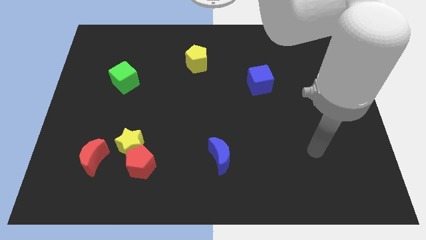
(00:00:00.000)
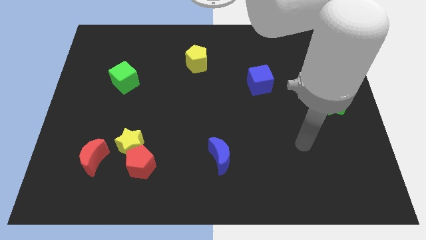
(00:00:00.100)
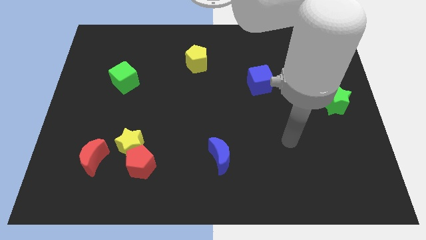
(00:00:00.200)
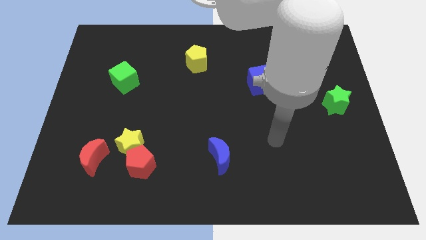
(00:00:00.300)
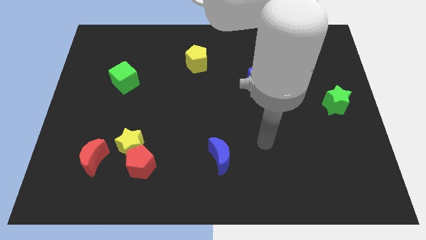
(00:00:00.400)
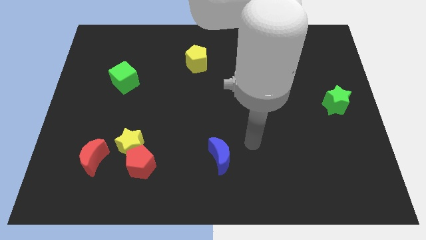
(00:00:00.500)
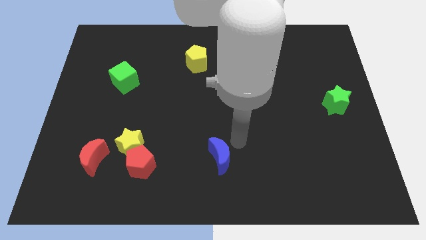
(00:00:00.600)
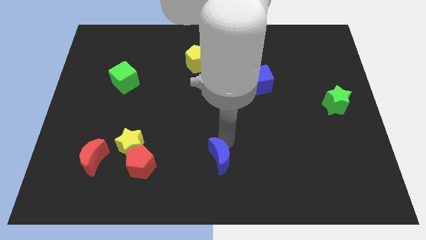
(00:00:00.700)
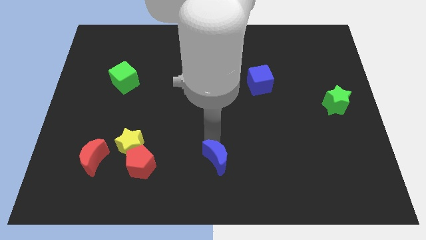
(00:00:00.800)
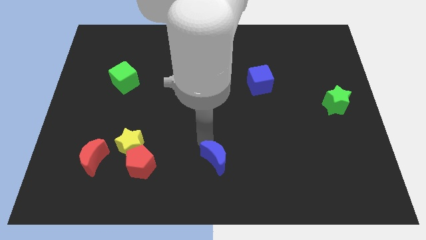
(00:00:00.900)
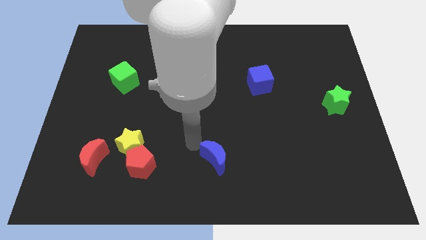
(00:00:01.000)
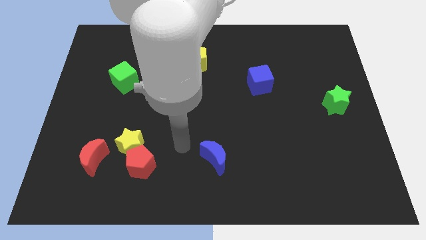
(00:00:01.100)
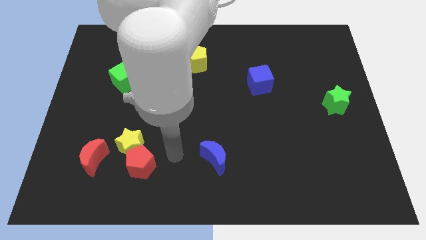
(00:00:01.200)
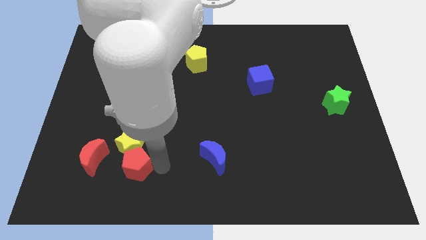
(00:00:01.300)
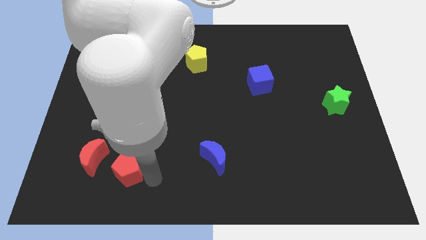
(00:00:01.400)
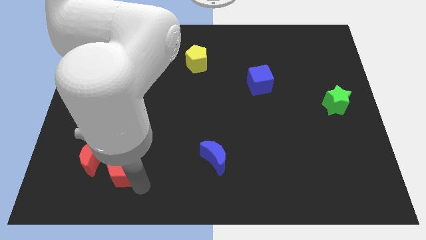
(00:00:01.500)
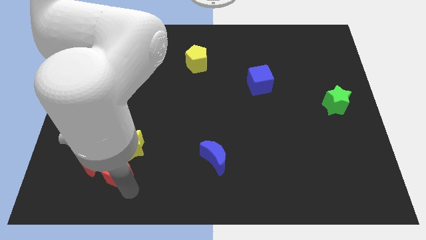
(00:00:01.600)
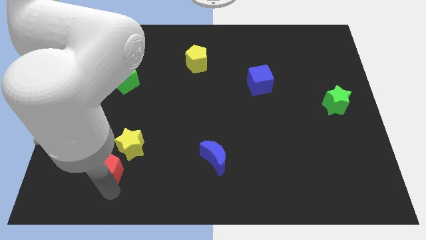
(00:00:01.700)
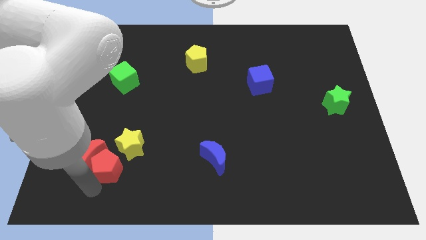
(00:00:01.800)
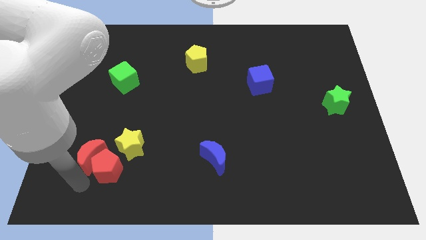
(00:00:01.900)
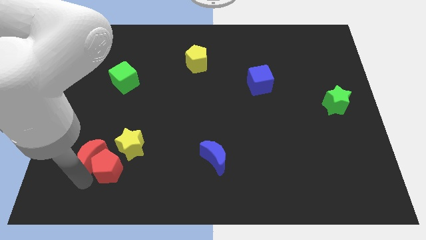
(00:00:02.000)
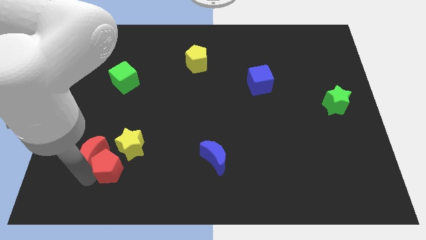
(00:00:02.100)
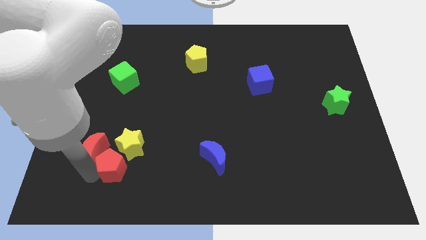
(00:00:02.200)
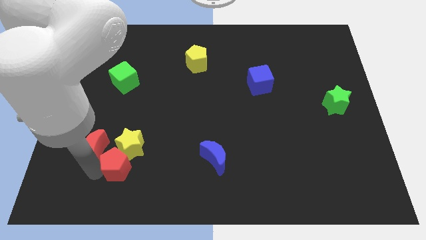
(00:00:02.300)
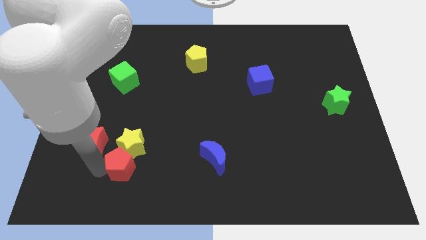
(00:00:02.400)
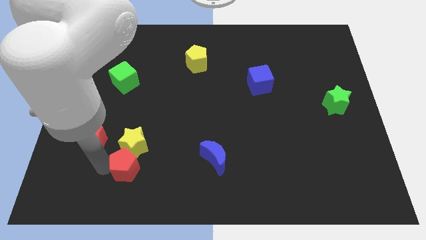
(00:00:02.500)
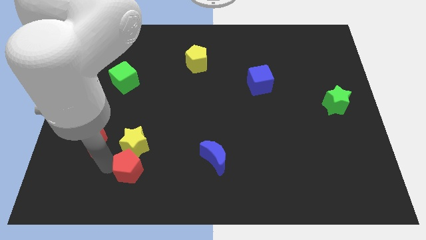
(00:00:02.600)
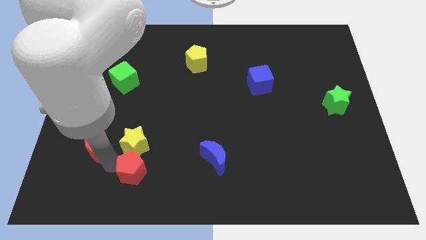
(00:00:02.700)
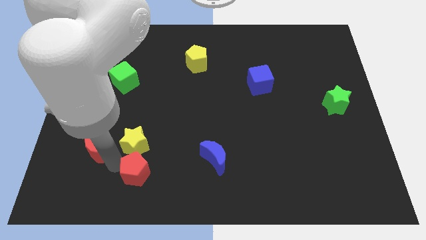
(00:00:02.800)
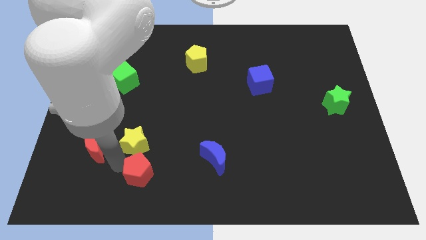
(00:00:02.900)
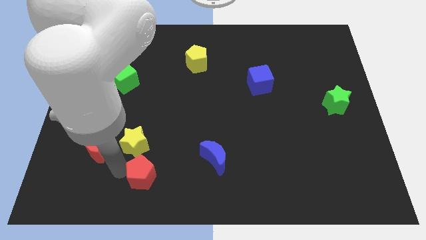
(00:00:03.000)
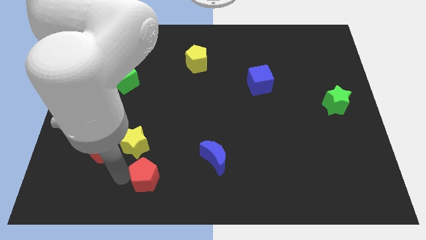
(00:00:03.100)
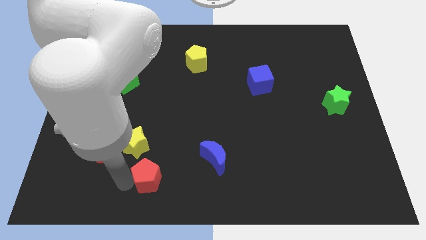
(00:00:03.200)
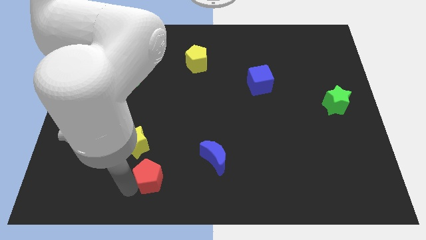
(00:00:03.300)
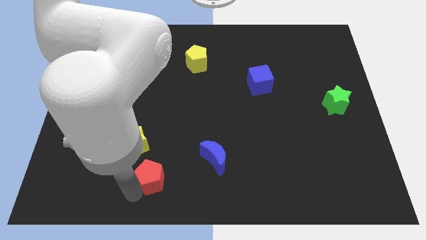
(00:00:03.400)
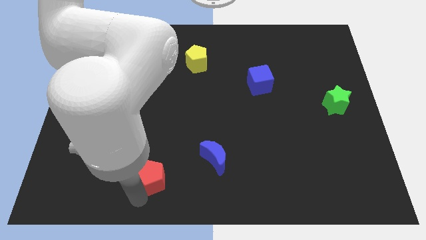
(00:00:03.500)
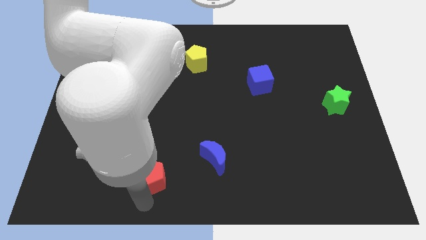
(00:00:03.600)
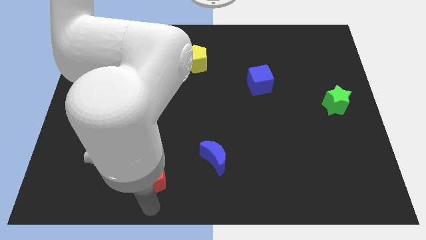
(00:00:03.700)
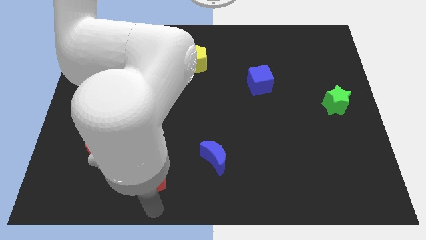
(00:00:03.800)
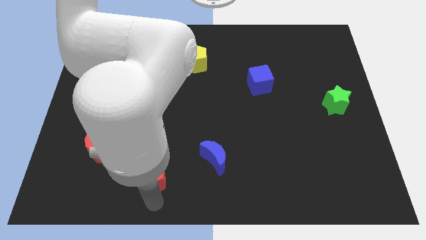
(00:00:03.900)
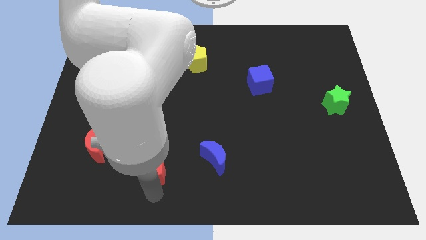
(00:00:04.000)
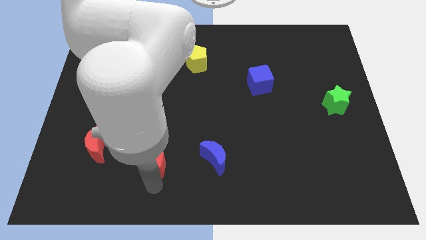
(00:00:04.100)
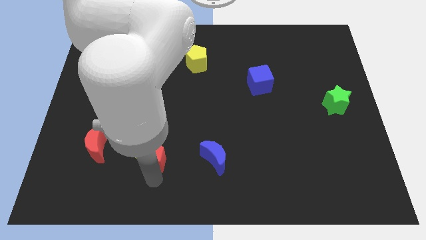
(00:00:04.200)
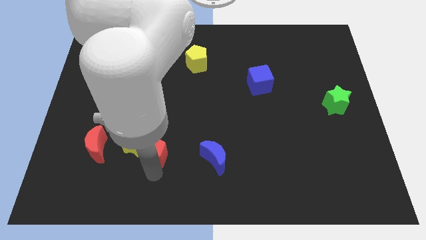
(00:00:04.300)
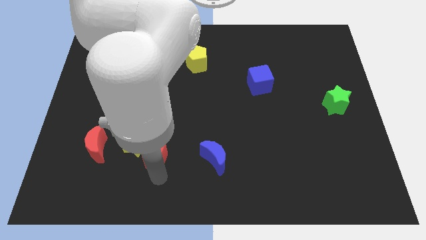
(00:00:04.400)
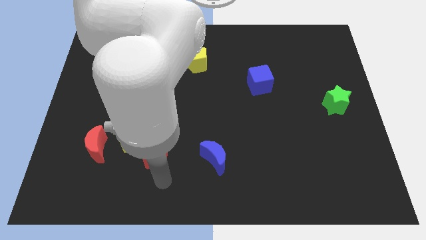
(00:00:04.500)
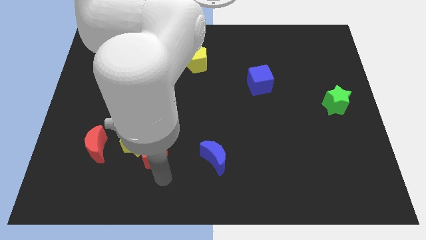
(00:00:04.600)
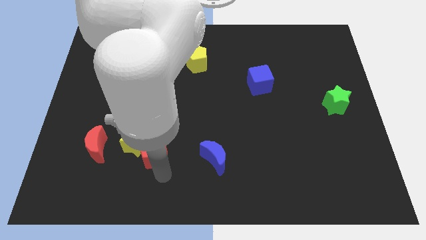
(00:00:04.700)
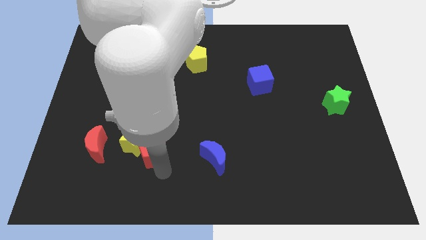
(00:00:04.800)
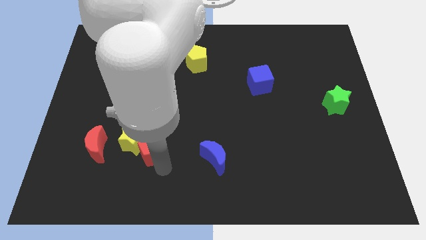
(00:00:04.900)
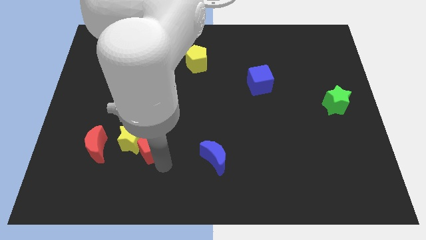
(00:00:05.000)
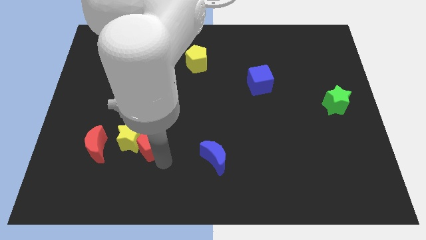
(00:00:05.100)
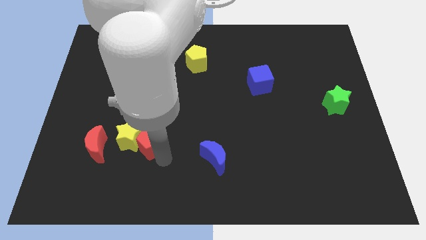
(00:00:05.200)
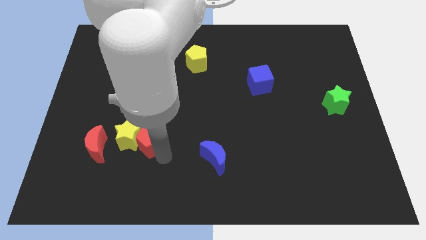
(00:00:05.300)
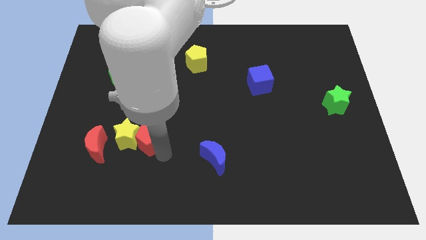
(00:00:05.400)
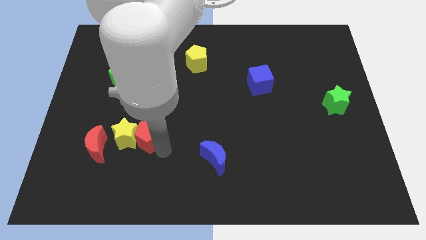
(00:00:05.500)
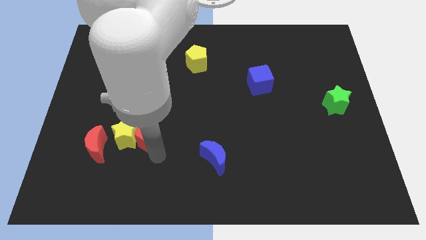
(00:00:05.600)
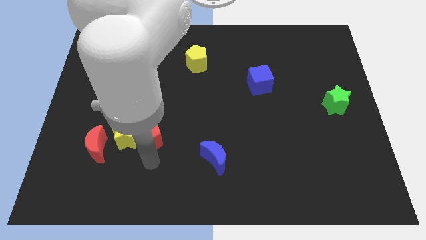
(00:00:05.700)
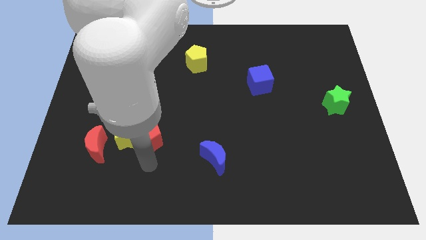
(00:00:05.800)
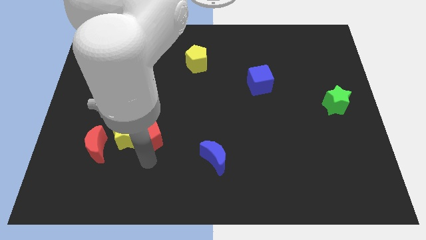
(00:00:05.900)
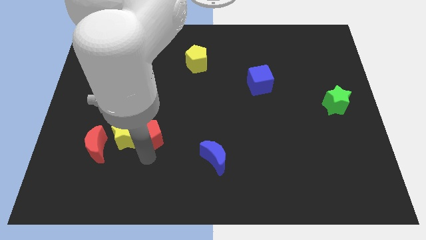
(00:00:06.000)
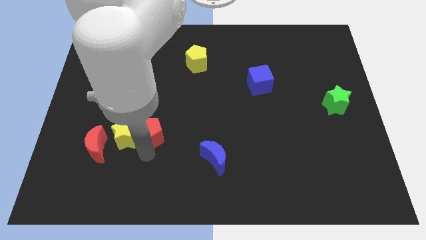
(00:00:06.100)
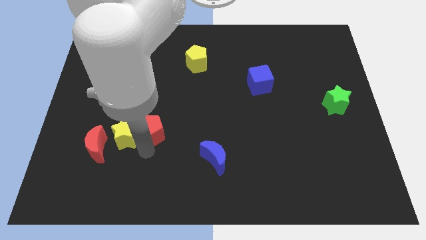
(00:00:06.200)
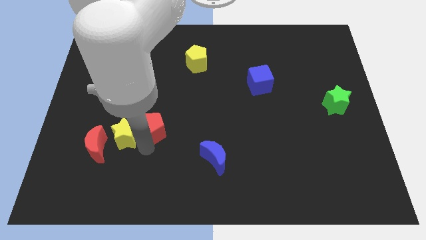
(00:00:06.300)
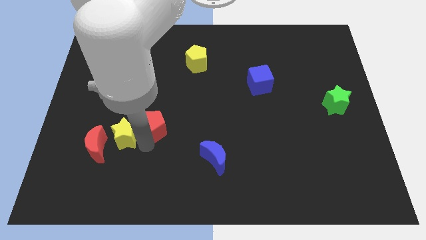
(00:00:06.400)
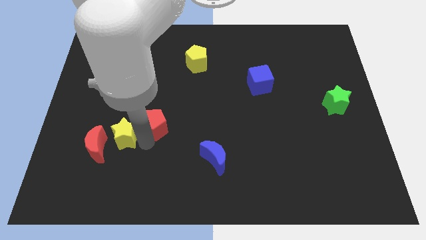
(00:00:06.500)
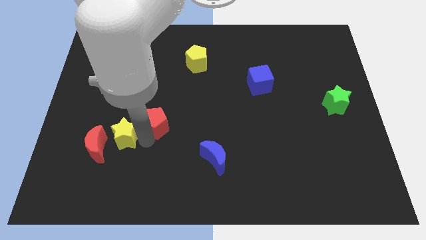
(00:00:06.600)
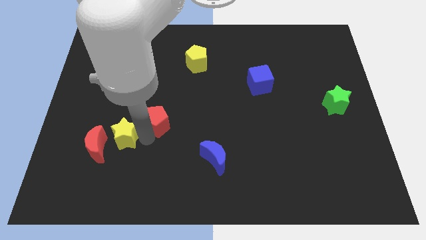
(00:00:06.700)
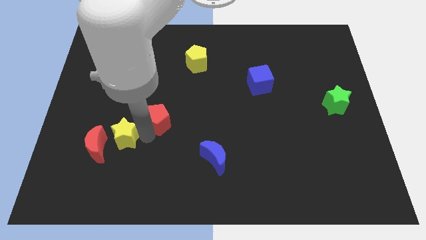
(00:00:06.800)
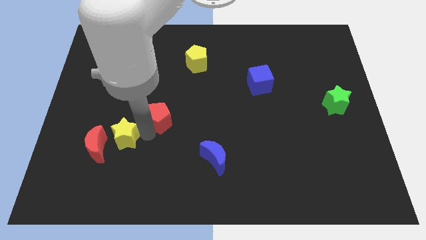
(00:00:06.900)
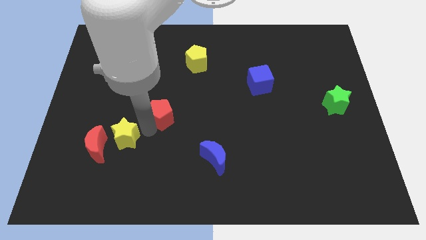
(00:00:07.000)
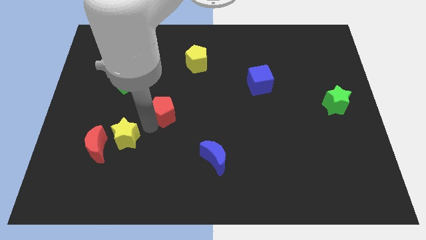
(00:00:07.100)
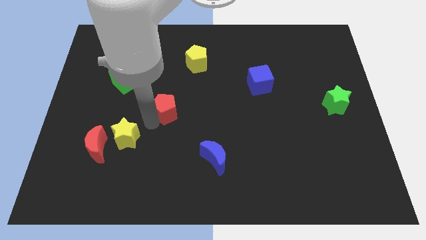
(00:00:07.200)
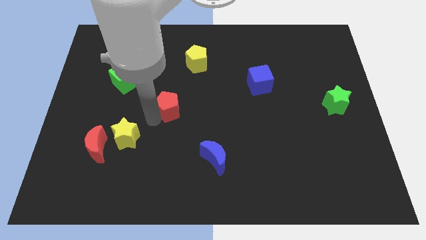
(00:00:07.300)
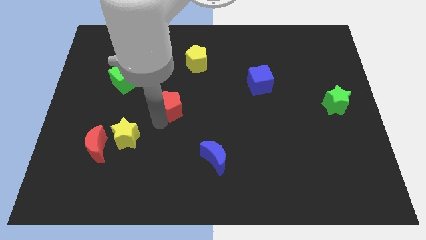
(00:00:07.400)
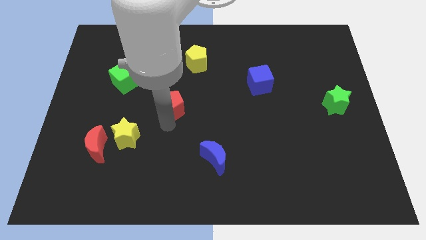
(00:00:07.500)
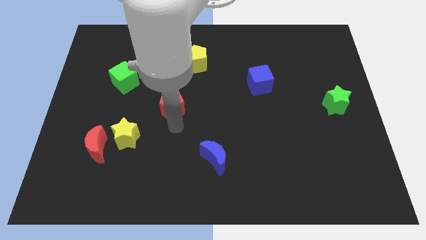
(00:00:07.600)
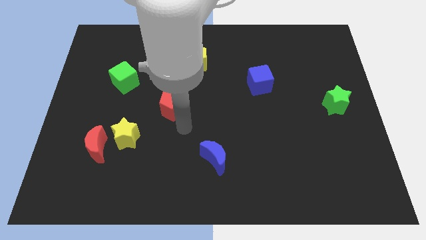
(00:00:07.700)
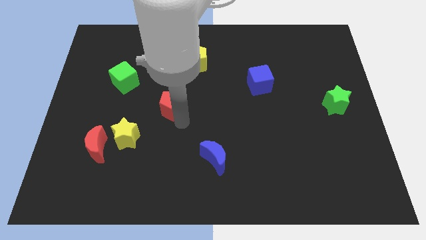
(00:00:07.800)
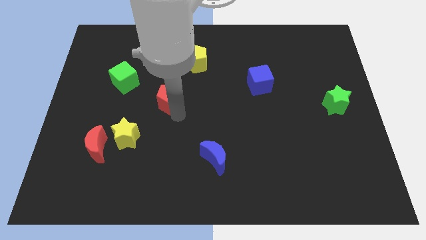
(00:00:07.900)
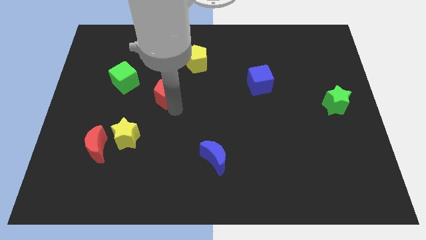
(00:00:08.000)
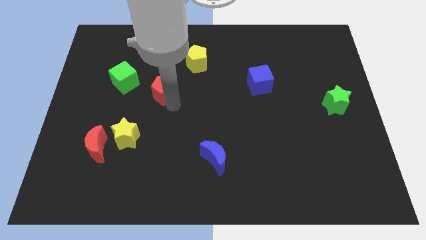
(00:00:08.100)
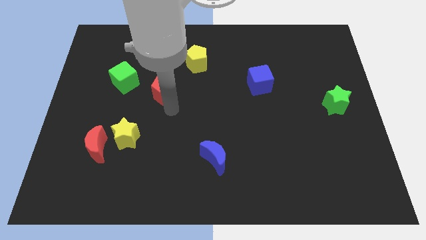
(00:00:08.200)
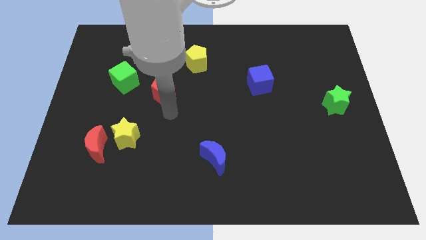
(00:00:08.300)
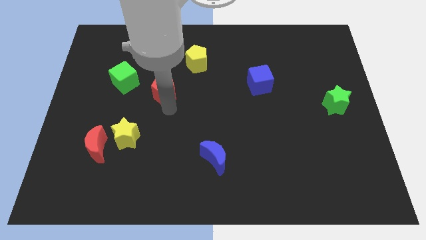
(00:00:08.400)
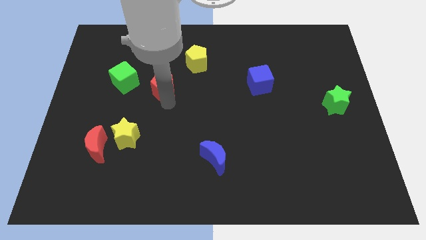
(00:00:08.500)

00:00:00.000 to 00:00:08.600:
slide the red pentagon upwards

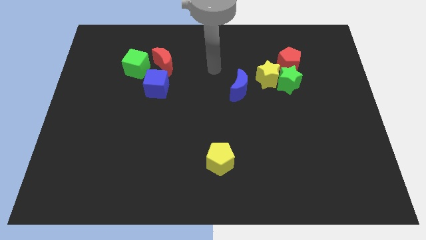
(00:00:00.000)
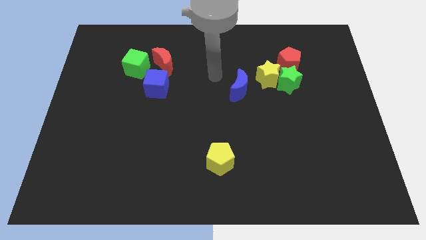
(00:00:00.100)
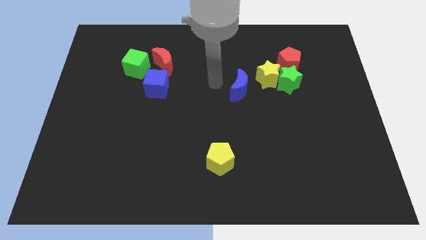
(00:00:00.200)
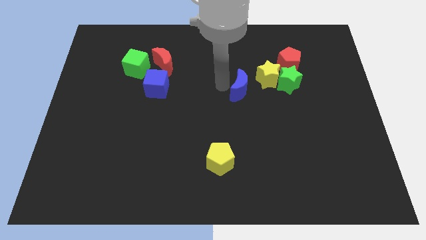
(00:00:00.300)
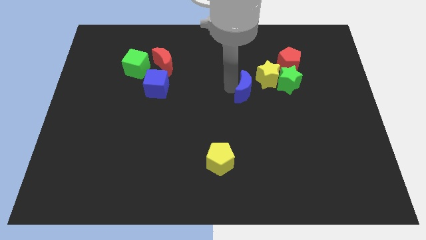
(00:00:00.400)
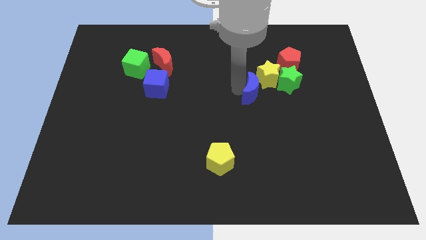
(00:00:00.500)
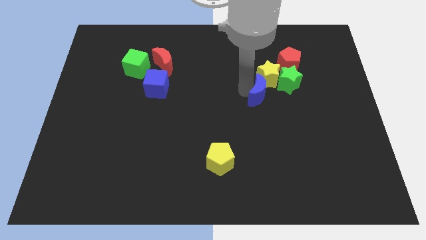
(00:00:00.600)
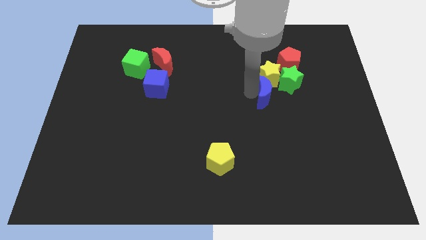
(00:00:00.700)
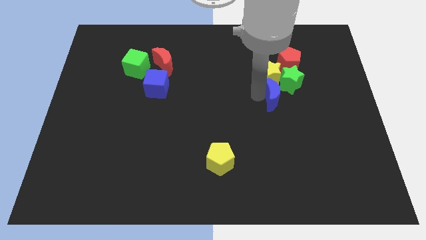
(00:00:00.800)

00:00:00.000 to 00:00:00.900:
slightly push the blue moon right
